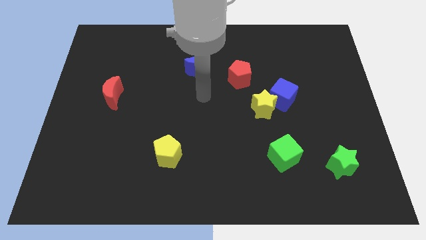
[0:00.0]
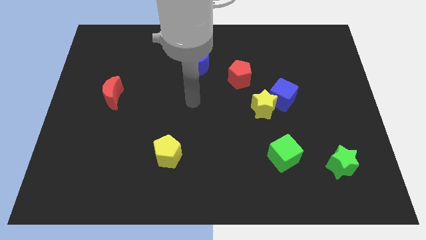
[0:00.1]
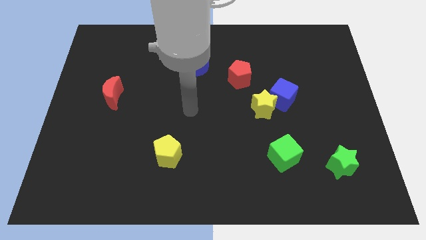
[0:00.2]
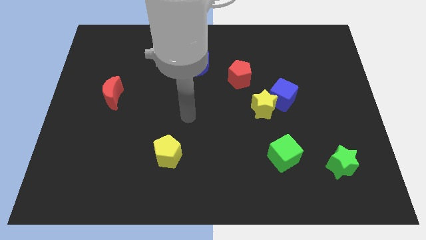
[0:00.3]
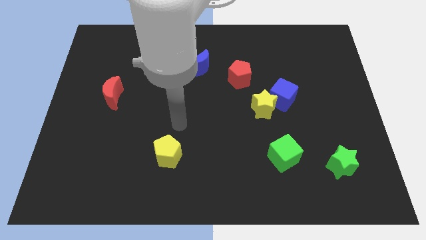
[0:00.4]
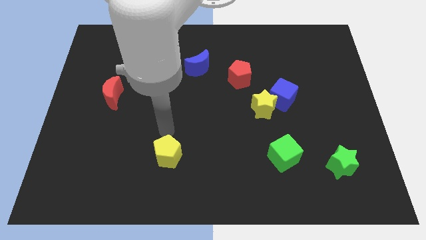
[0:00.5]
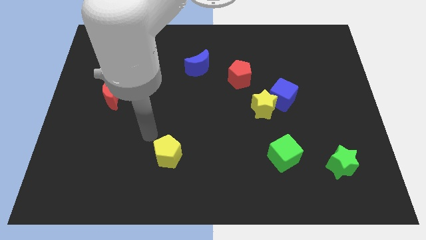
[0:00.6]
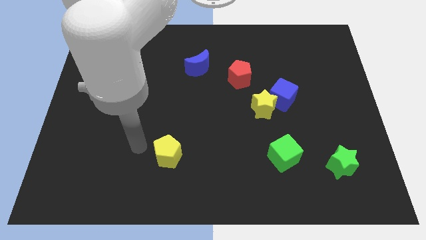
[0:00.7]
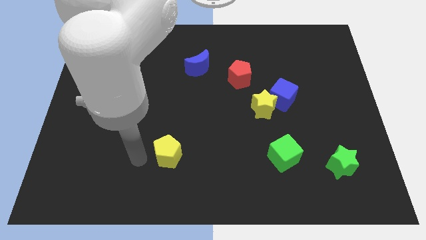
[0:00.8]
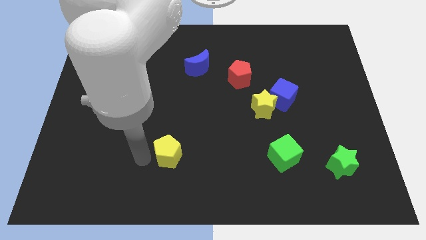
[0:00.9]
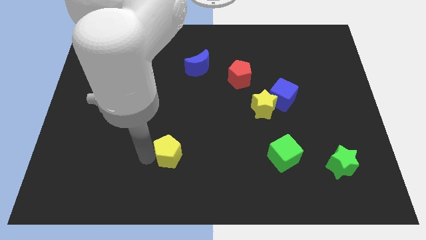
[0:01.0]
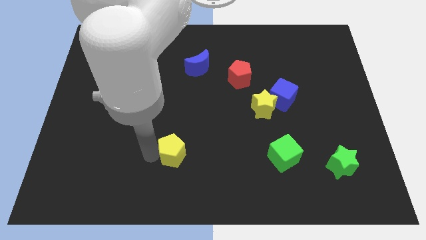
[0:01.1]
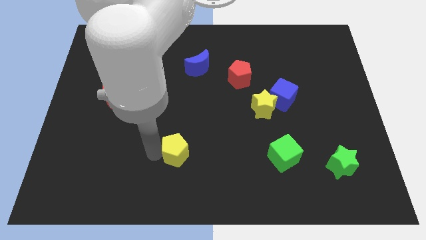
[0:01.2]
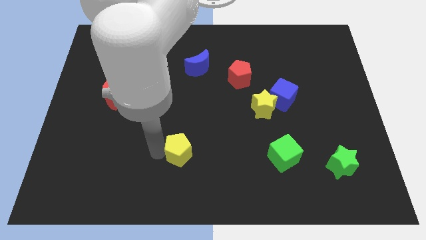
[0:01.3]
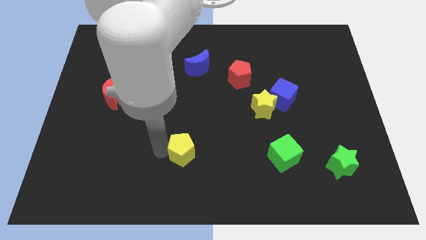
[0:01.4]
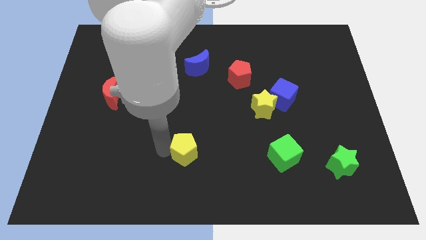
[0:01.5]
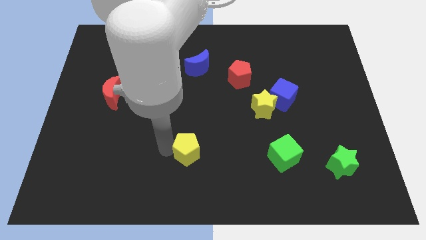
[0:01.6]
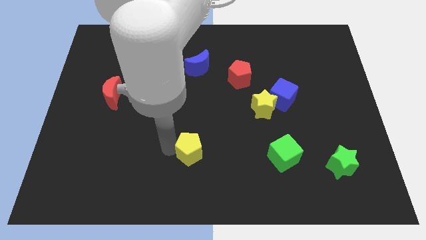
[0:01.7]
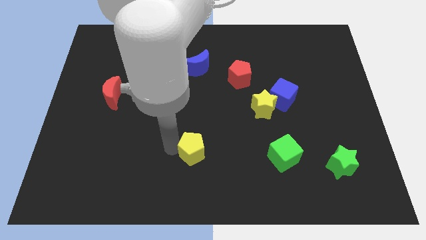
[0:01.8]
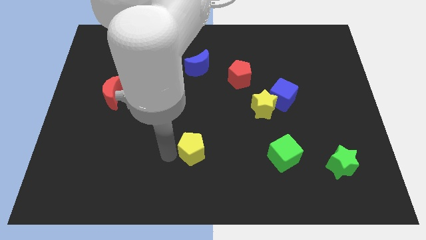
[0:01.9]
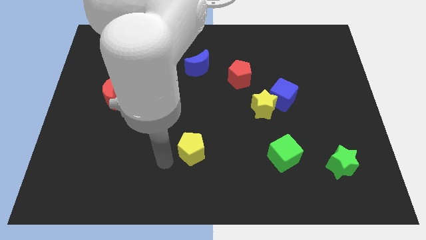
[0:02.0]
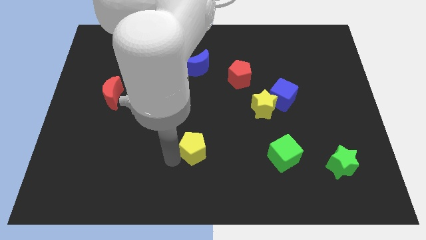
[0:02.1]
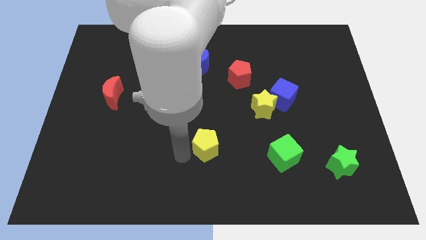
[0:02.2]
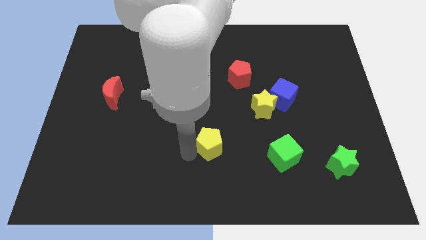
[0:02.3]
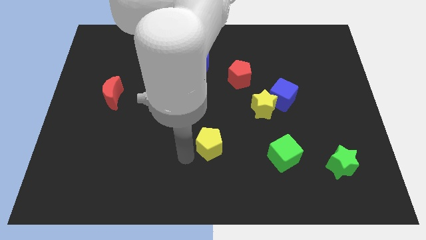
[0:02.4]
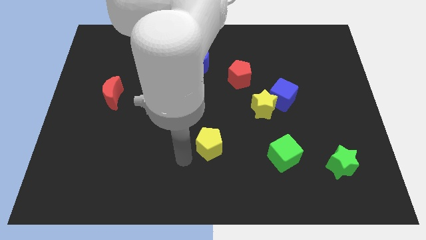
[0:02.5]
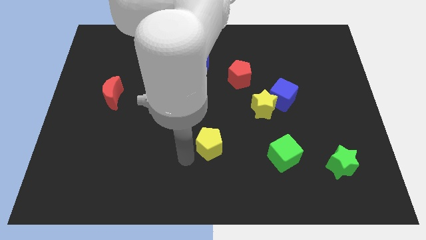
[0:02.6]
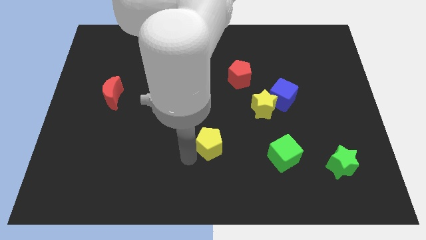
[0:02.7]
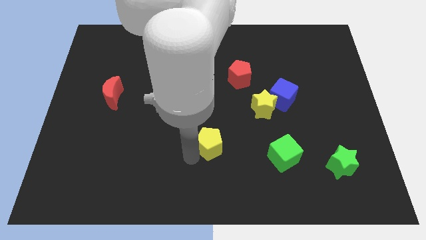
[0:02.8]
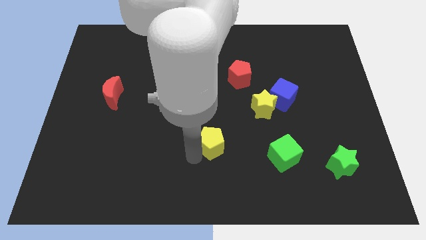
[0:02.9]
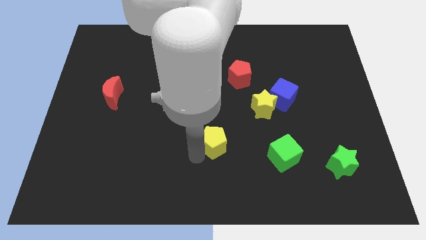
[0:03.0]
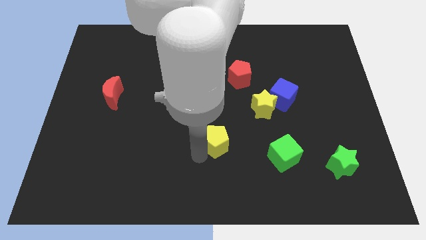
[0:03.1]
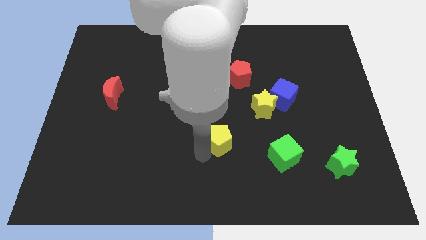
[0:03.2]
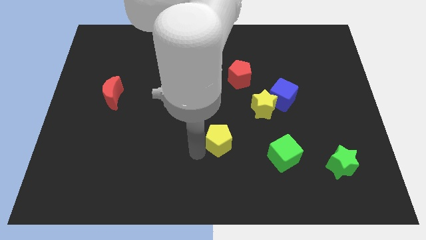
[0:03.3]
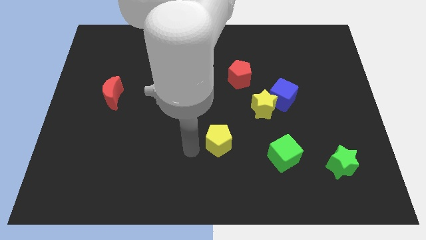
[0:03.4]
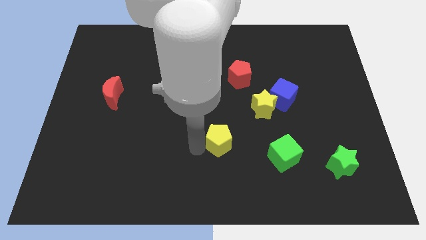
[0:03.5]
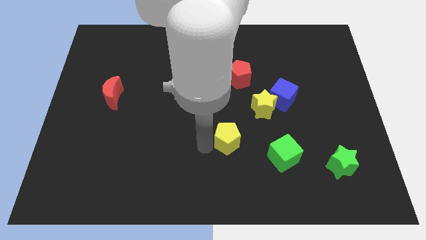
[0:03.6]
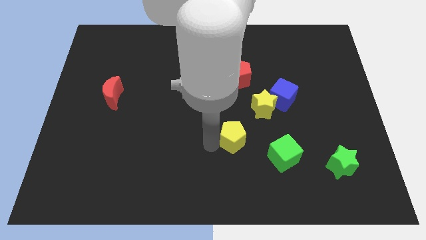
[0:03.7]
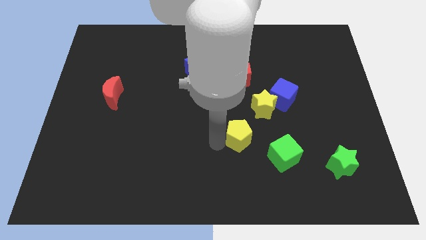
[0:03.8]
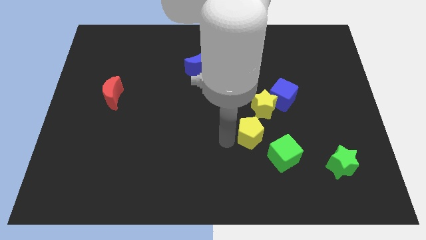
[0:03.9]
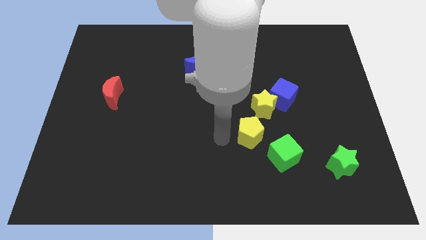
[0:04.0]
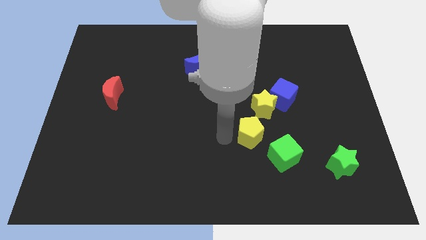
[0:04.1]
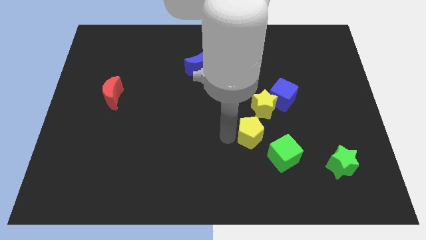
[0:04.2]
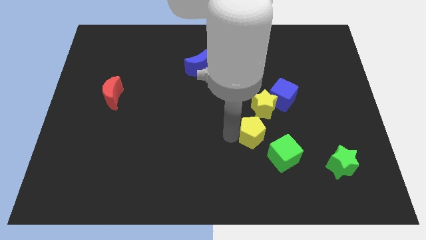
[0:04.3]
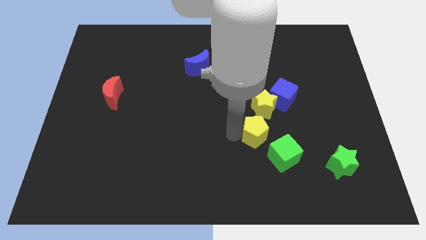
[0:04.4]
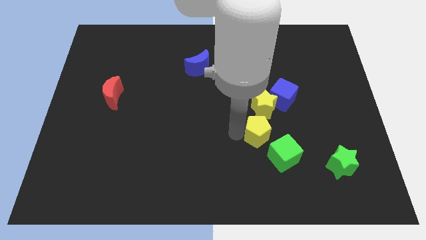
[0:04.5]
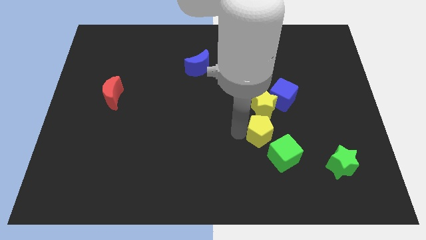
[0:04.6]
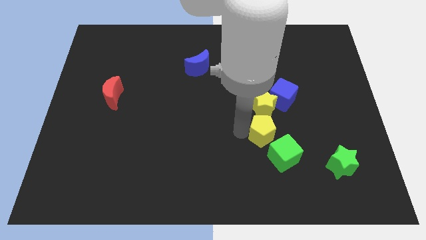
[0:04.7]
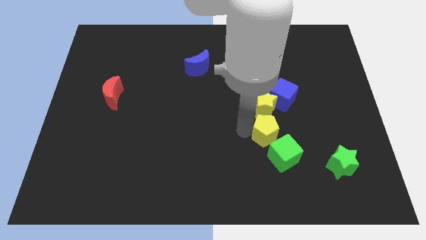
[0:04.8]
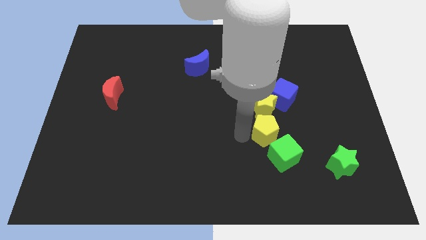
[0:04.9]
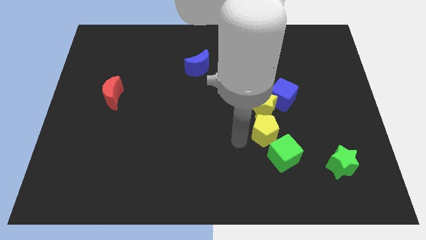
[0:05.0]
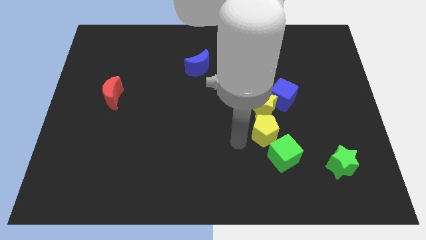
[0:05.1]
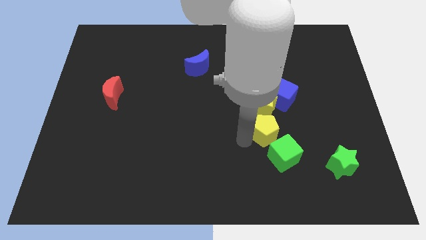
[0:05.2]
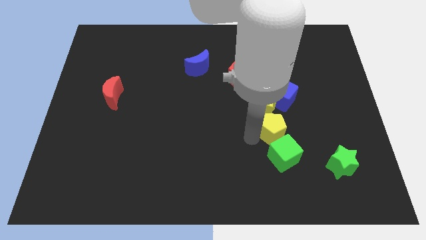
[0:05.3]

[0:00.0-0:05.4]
push the yellow pentagon to the bottom right side of the yellow star

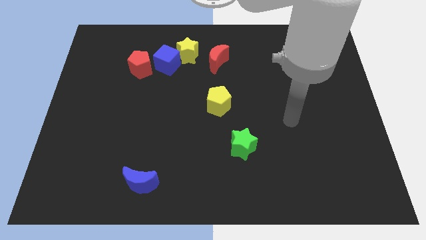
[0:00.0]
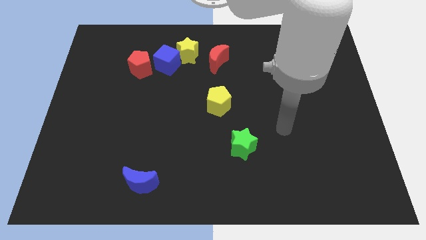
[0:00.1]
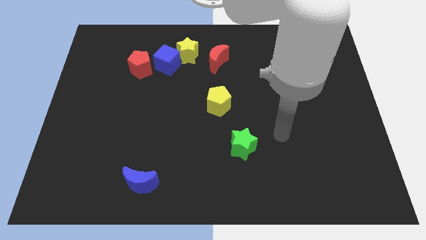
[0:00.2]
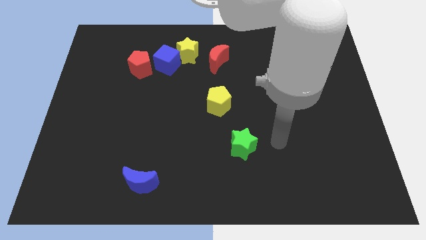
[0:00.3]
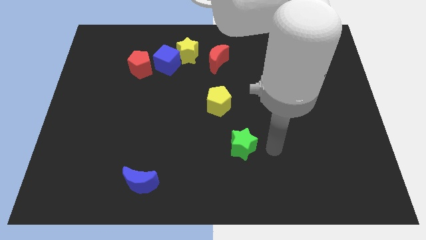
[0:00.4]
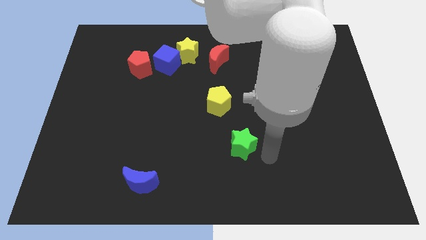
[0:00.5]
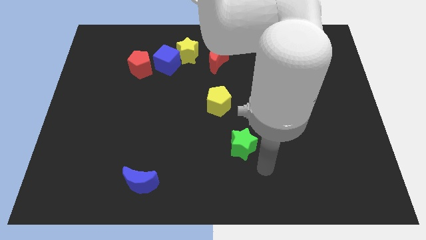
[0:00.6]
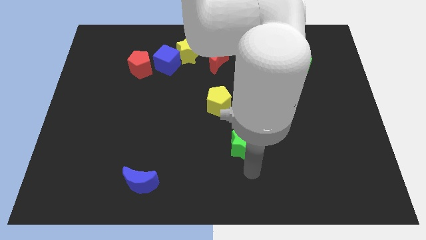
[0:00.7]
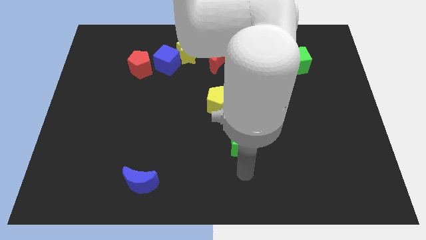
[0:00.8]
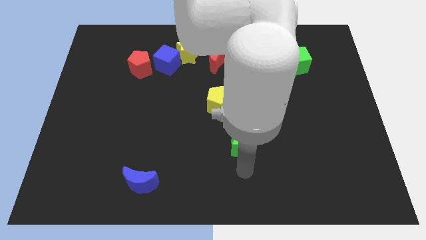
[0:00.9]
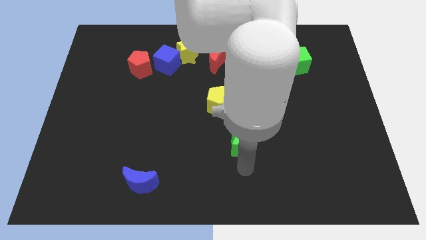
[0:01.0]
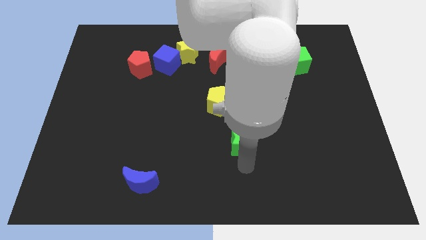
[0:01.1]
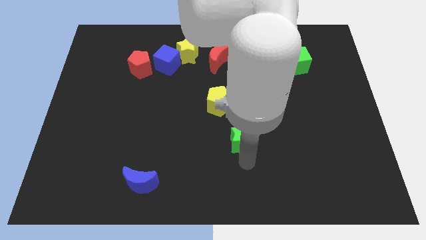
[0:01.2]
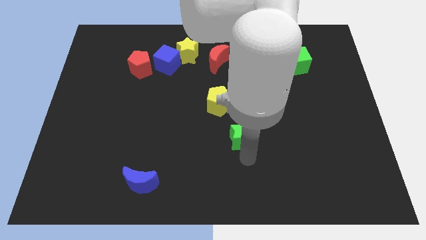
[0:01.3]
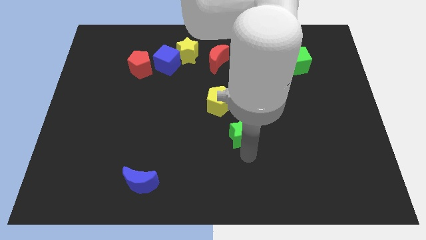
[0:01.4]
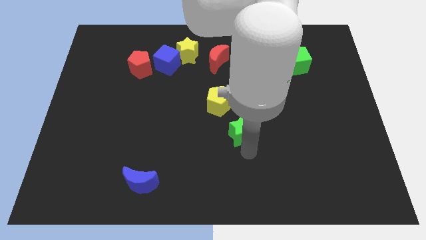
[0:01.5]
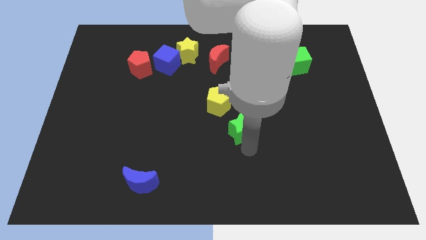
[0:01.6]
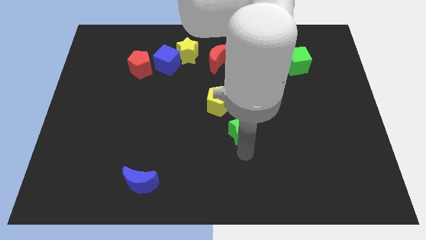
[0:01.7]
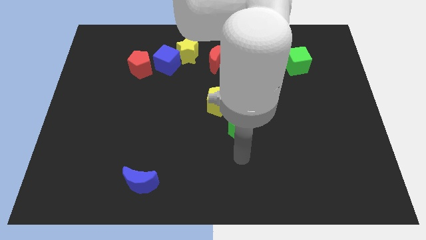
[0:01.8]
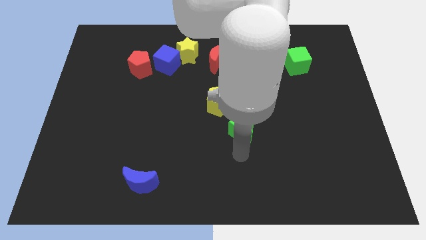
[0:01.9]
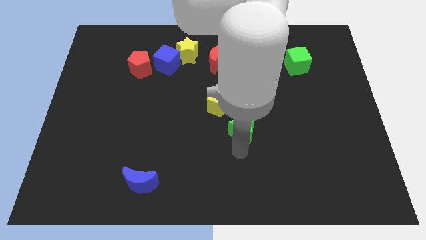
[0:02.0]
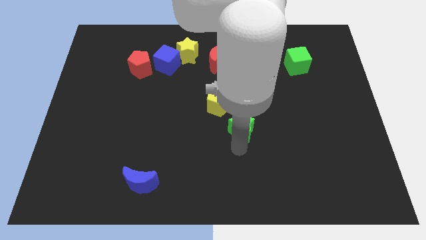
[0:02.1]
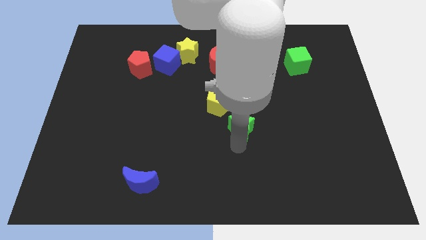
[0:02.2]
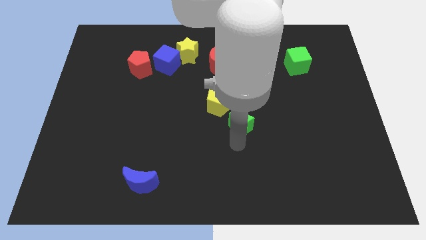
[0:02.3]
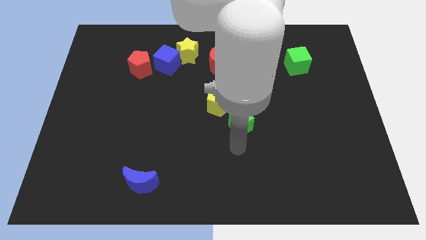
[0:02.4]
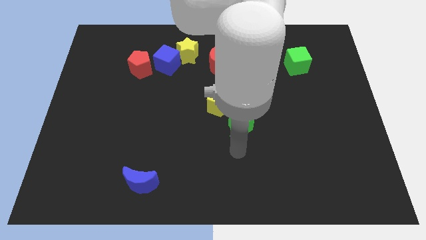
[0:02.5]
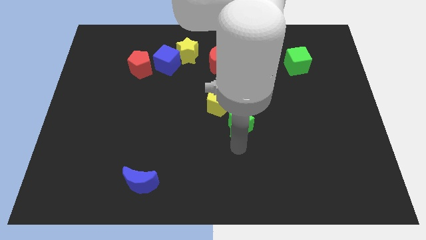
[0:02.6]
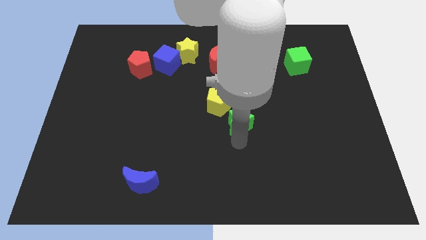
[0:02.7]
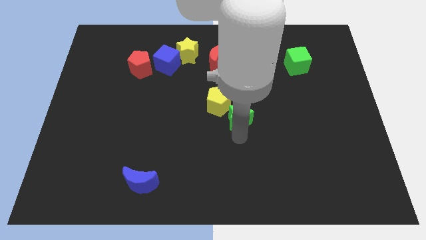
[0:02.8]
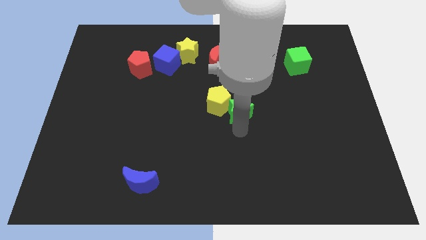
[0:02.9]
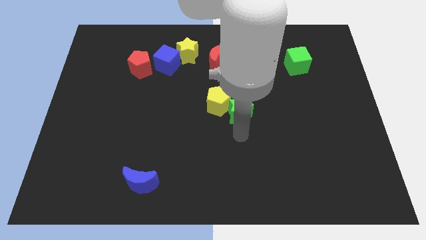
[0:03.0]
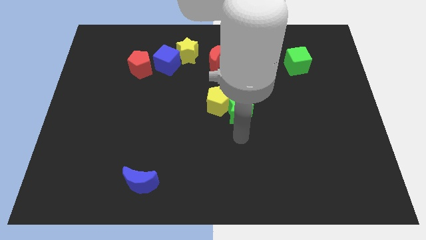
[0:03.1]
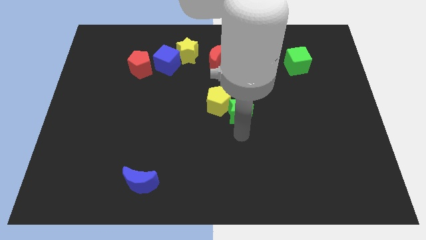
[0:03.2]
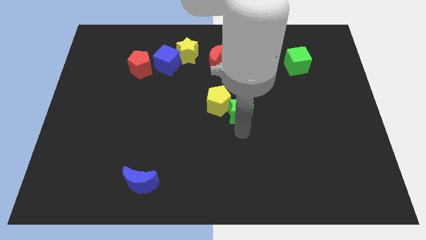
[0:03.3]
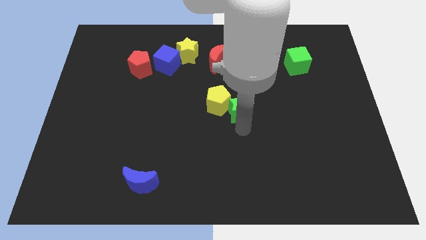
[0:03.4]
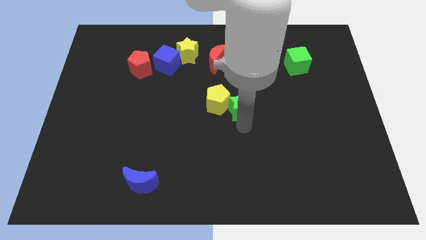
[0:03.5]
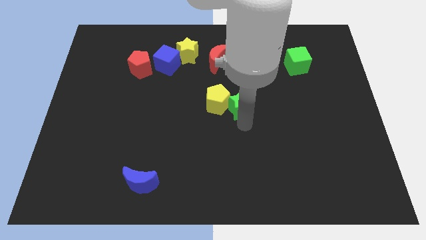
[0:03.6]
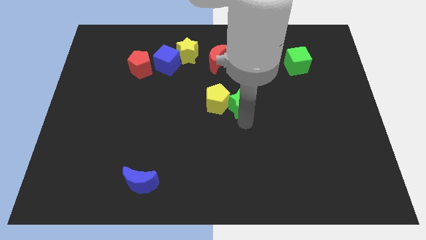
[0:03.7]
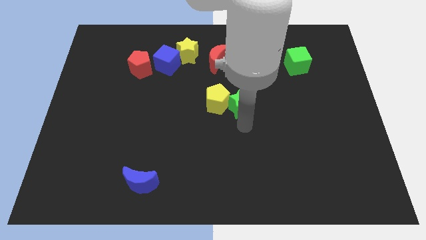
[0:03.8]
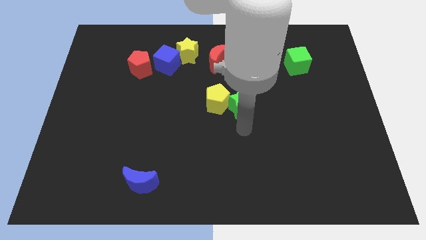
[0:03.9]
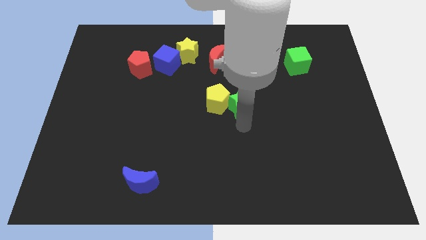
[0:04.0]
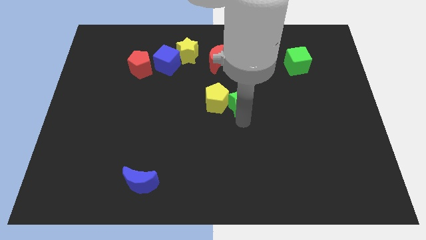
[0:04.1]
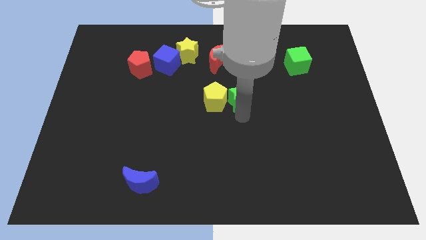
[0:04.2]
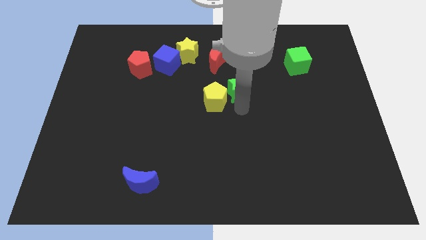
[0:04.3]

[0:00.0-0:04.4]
move the green star diagonally down and to the right of the red moon
